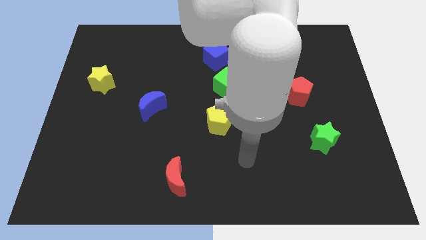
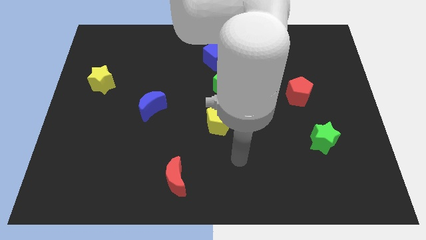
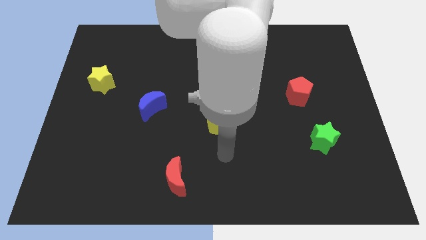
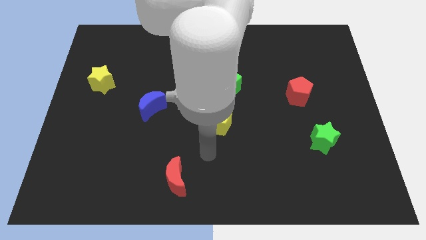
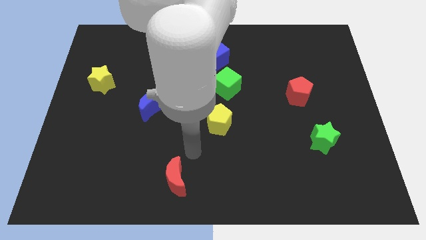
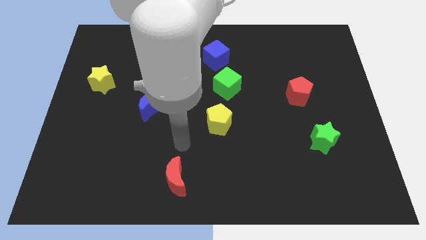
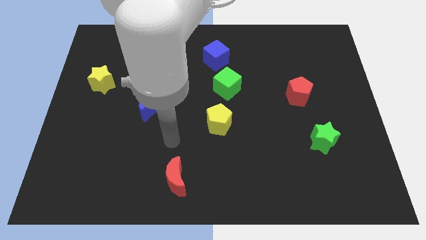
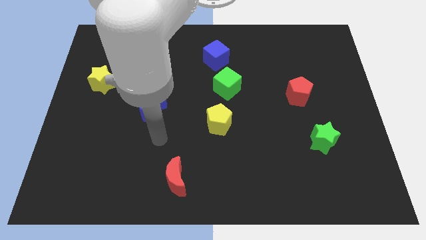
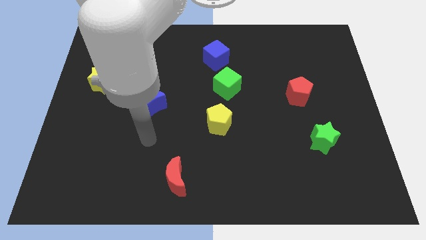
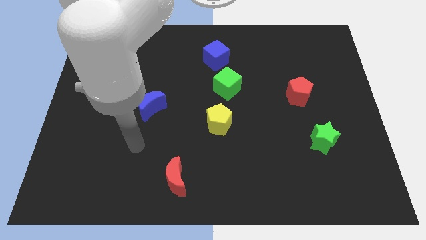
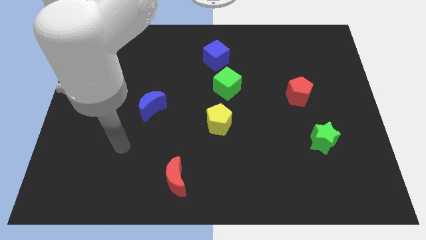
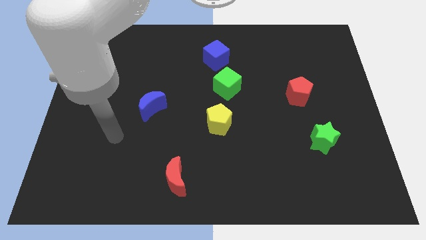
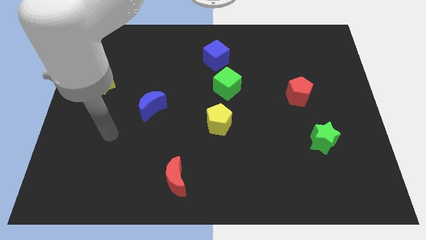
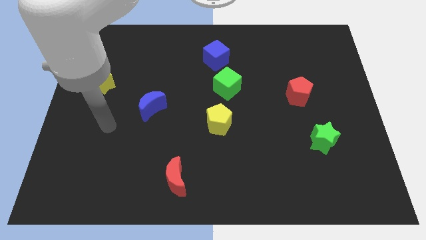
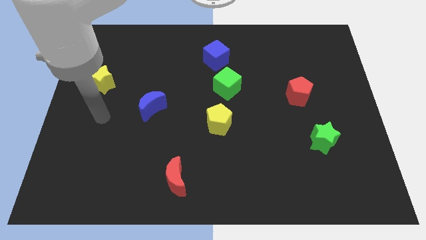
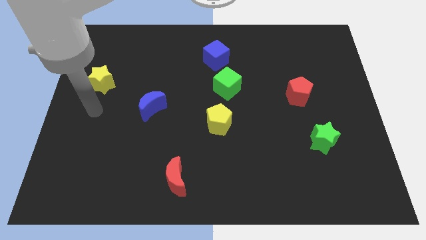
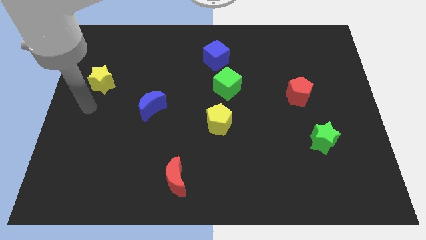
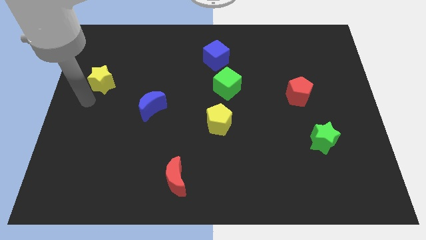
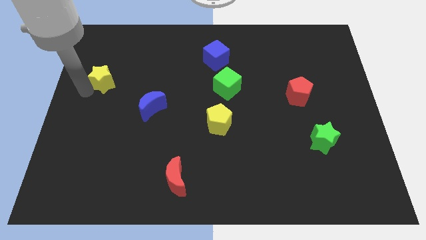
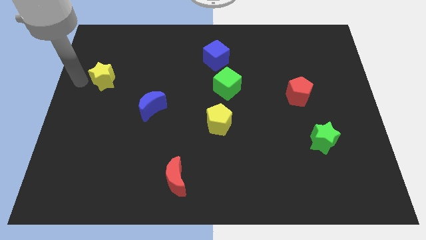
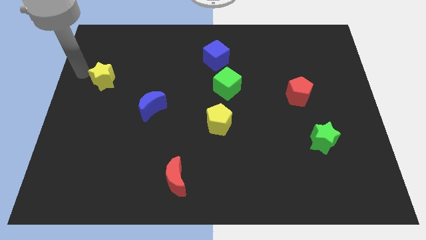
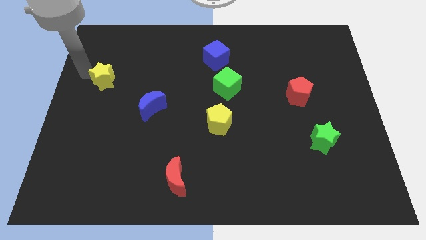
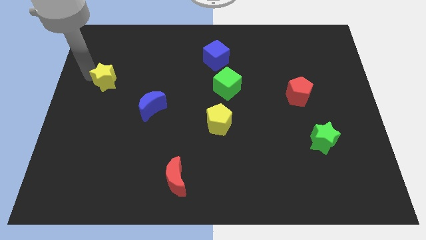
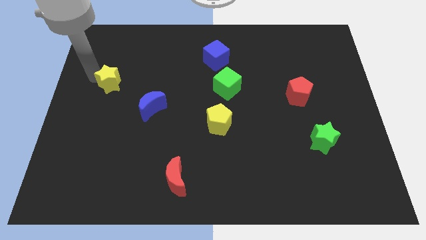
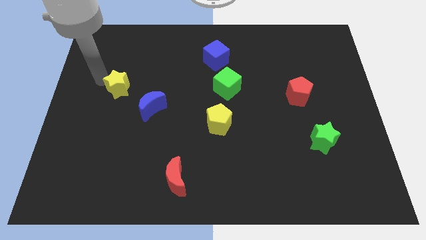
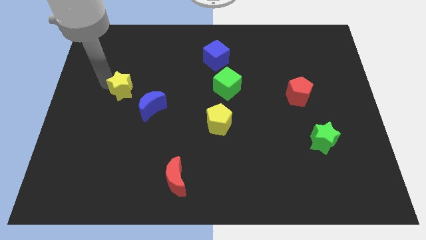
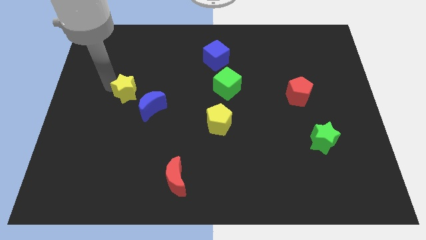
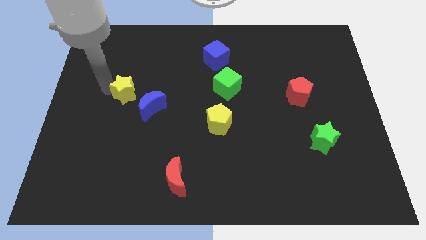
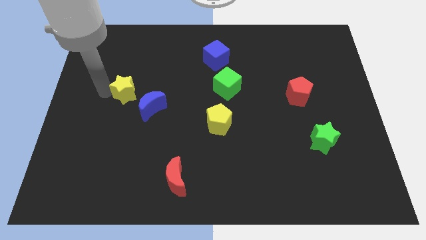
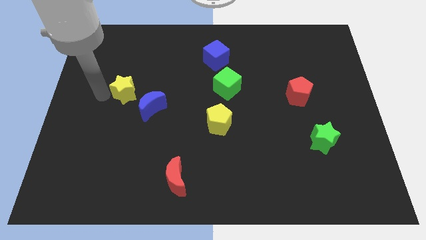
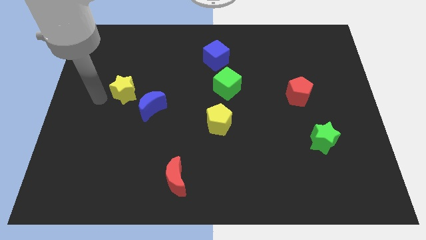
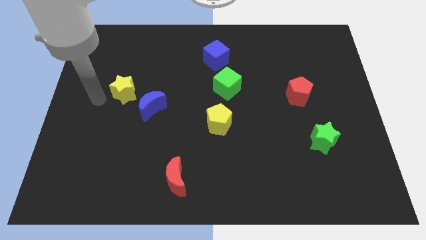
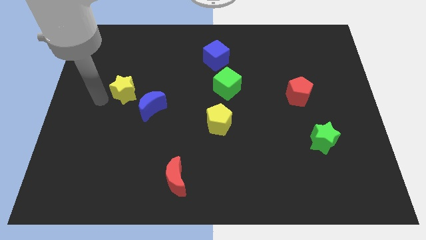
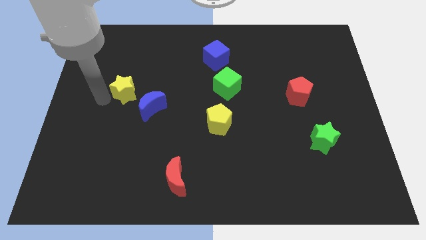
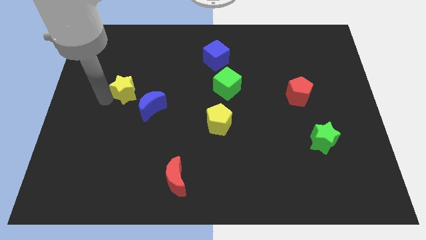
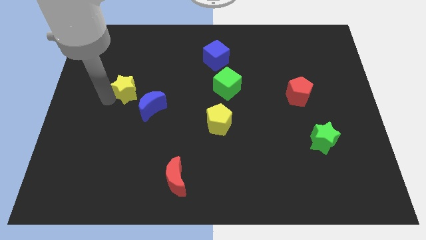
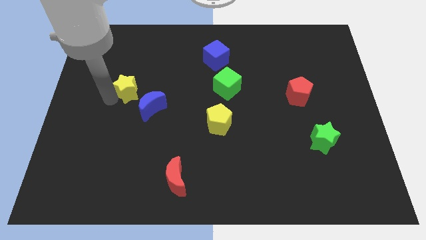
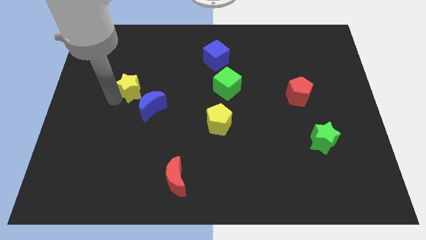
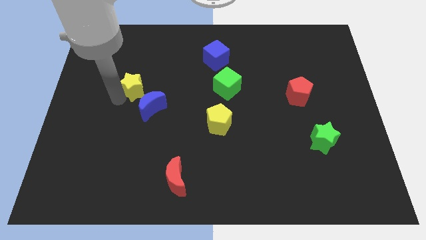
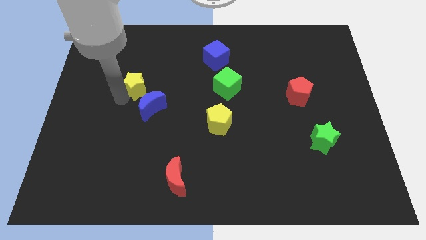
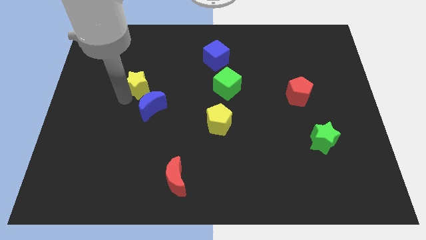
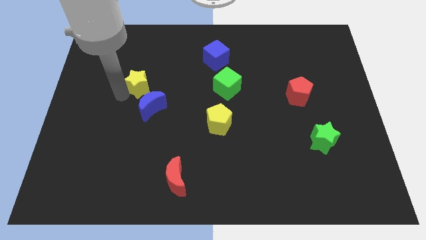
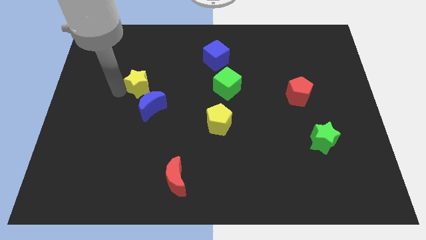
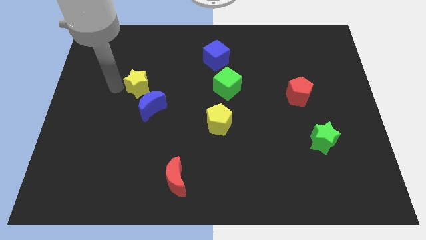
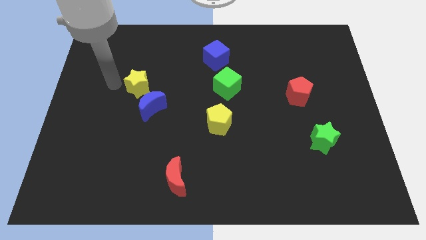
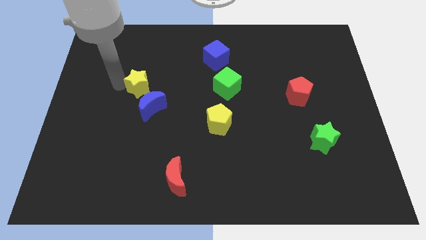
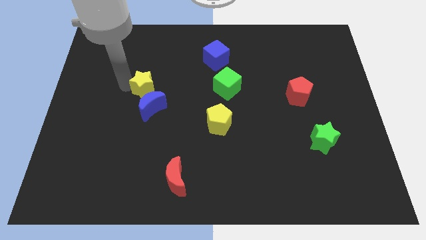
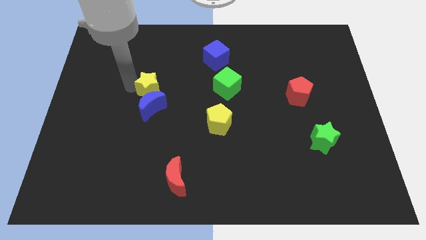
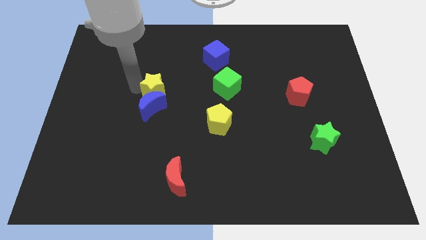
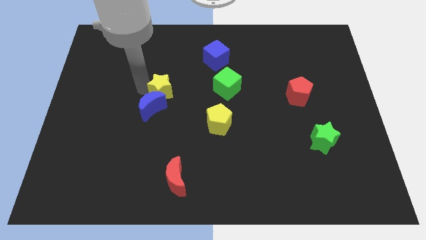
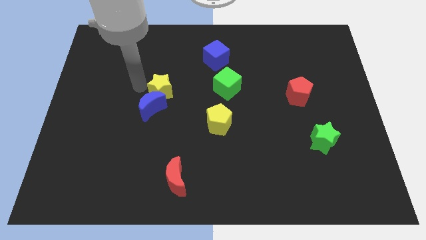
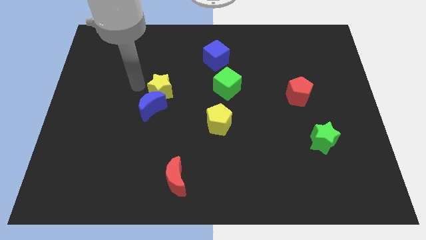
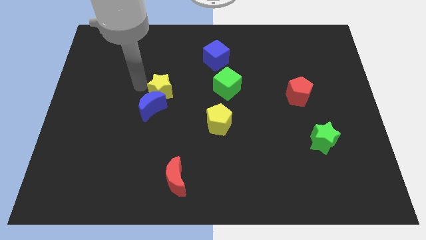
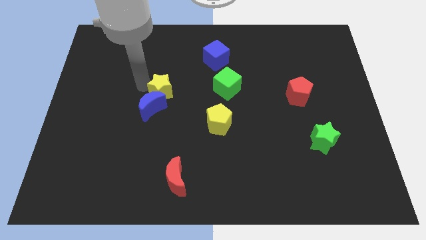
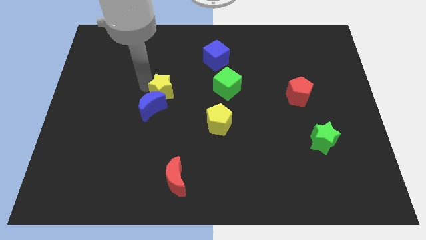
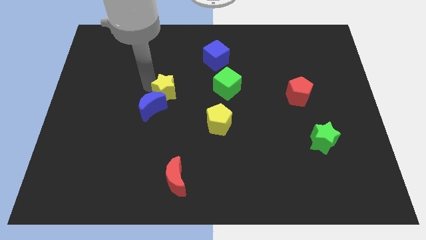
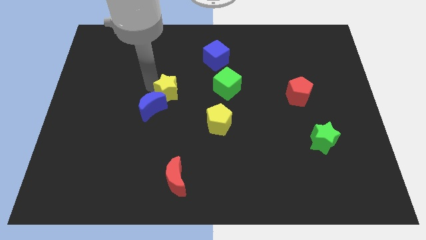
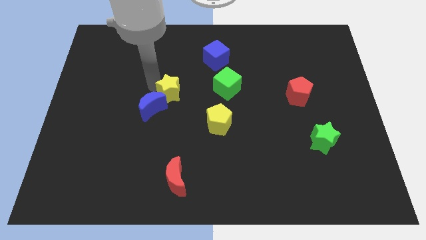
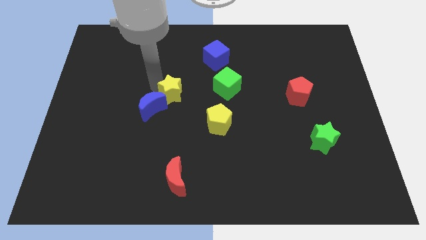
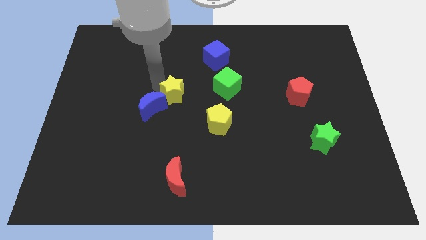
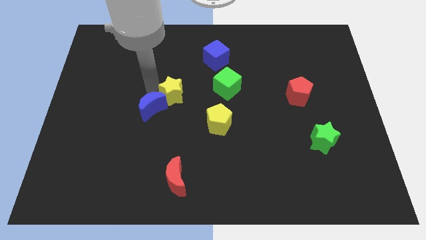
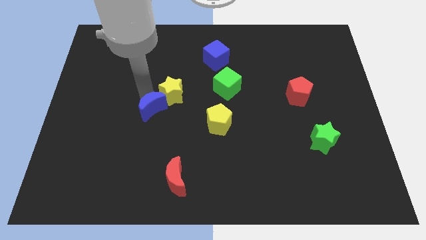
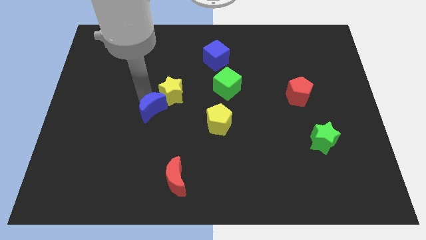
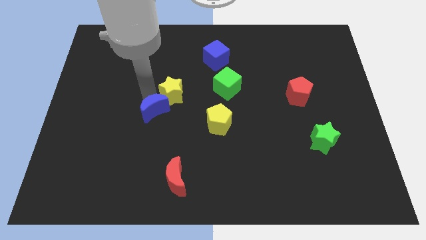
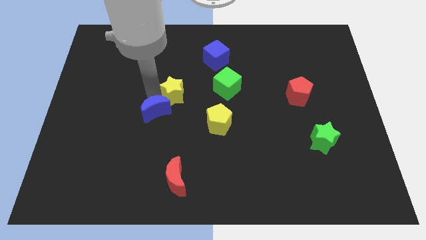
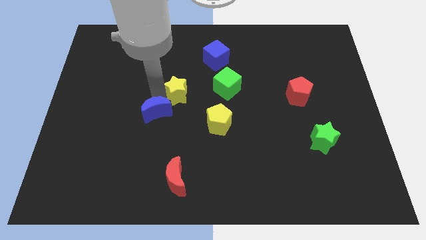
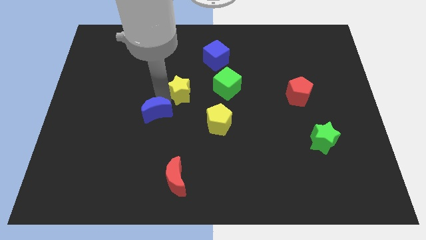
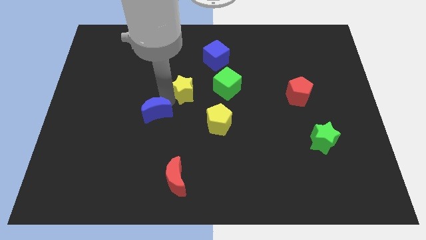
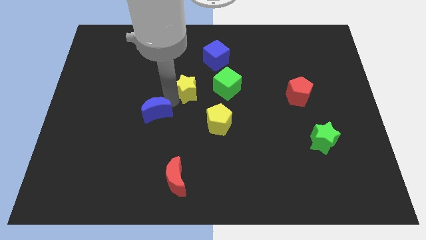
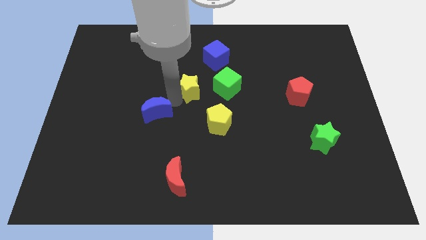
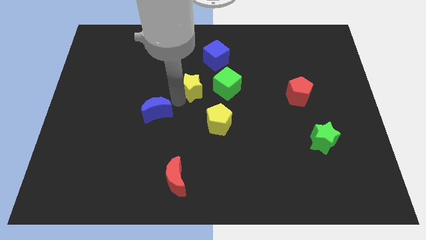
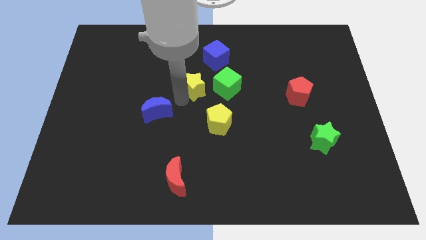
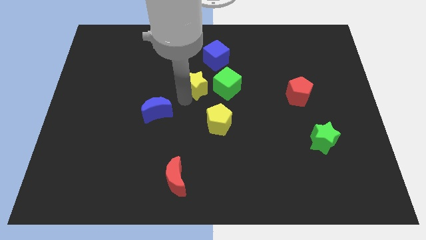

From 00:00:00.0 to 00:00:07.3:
slide the yellow star to the bottom side of the blue cube
